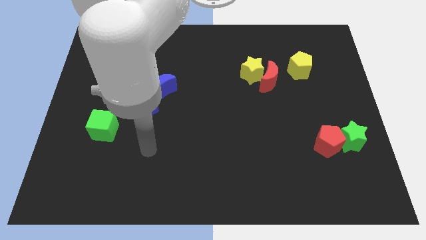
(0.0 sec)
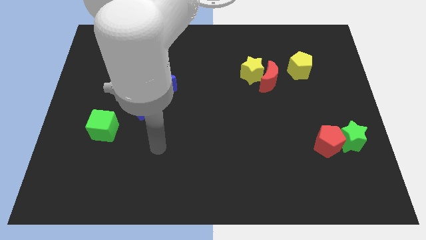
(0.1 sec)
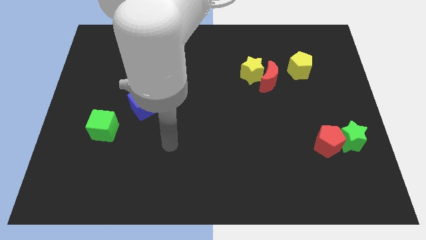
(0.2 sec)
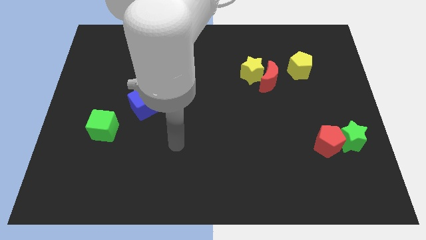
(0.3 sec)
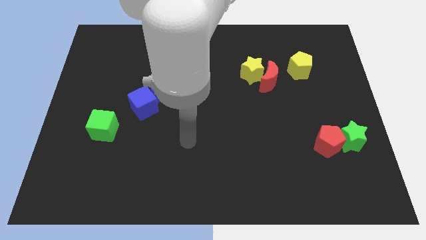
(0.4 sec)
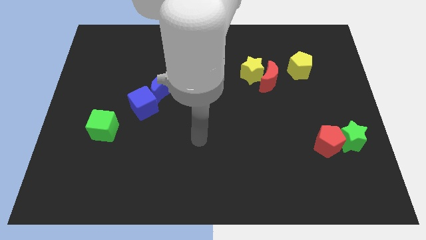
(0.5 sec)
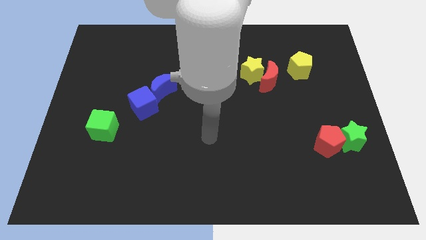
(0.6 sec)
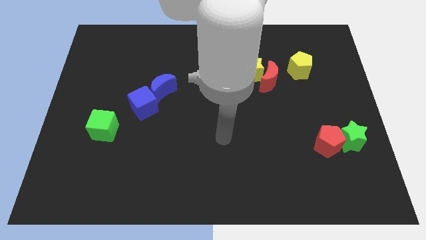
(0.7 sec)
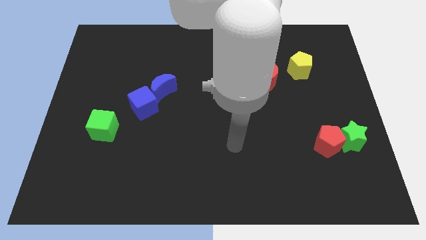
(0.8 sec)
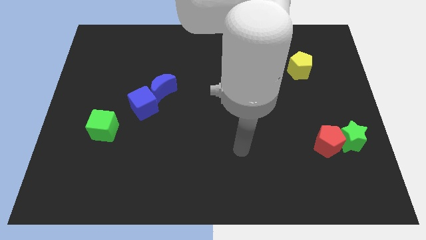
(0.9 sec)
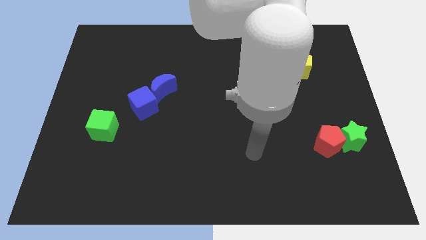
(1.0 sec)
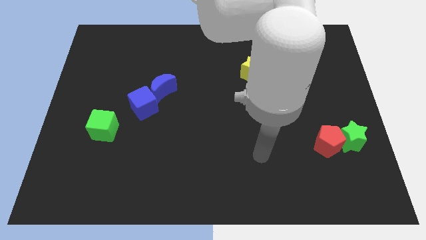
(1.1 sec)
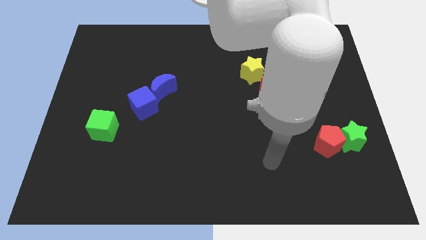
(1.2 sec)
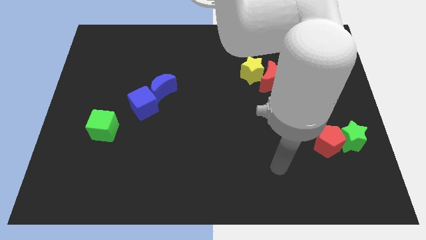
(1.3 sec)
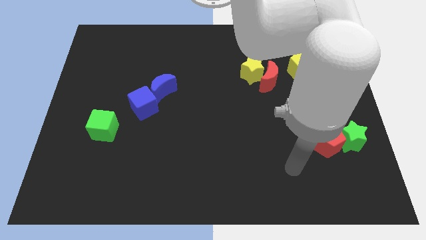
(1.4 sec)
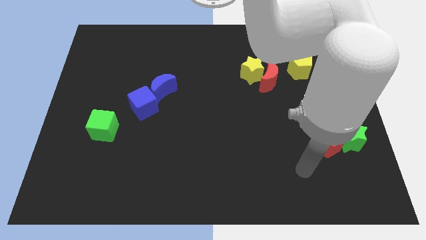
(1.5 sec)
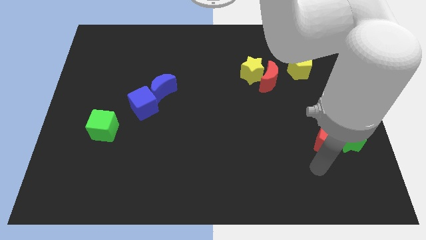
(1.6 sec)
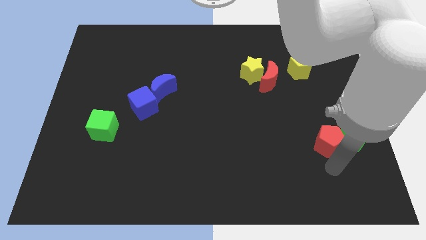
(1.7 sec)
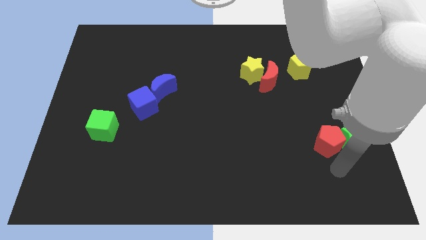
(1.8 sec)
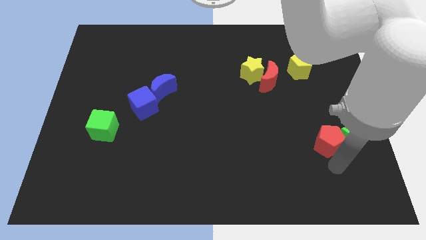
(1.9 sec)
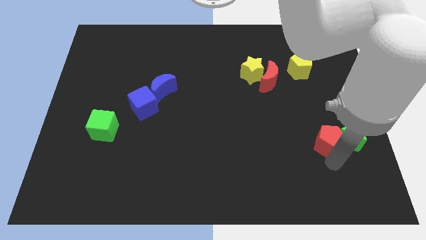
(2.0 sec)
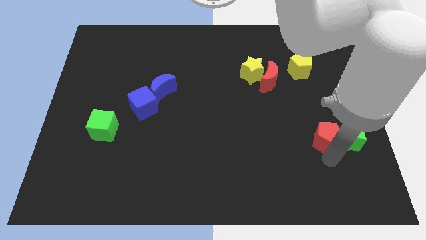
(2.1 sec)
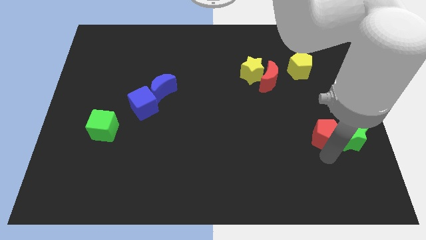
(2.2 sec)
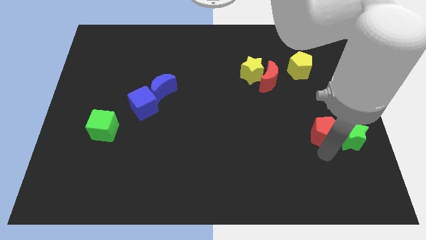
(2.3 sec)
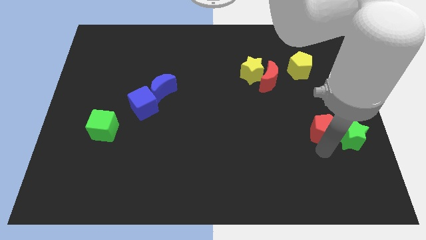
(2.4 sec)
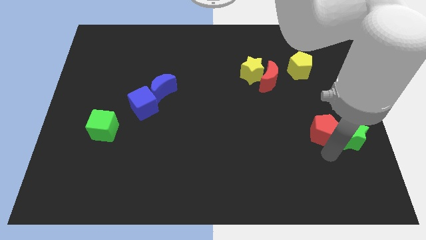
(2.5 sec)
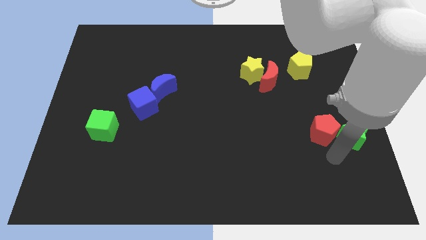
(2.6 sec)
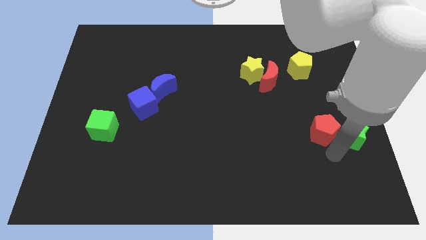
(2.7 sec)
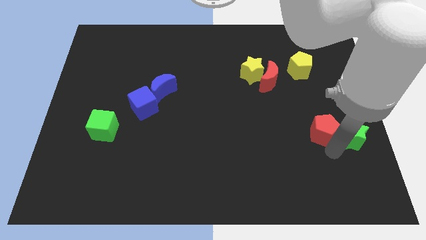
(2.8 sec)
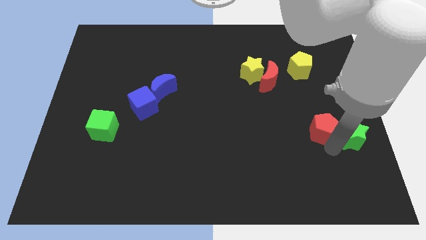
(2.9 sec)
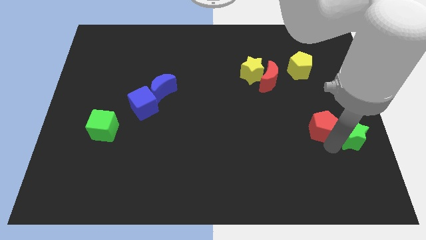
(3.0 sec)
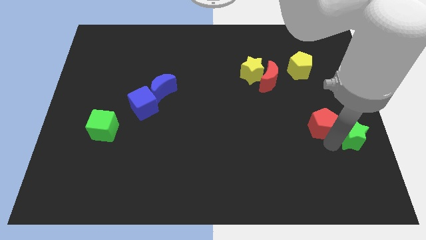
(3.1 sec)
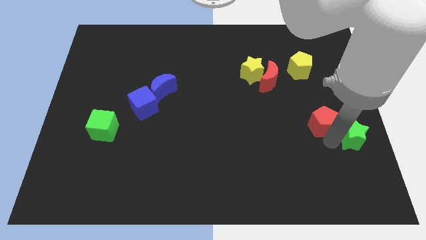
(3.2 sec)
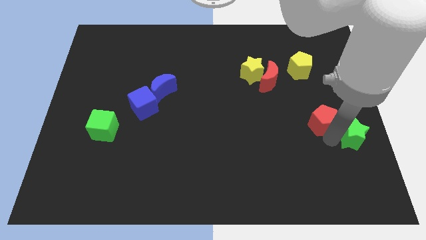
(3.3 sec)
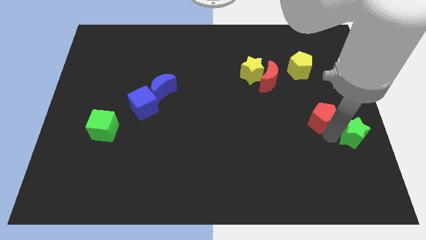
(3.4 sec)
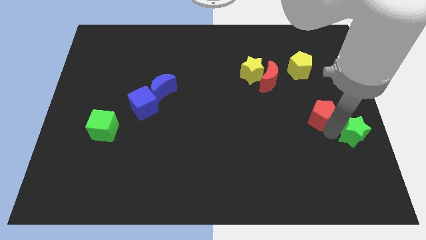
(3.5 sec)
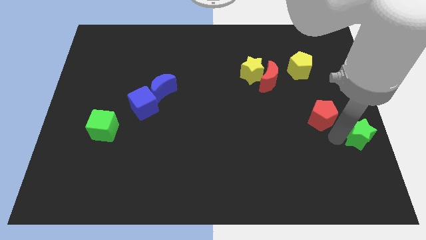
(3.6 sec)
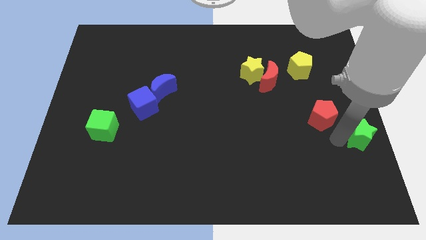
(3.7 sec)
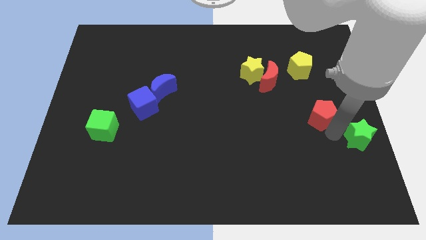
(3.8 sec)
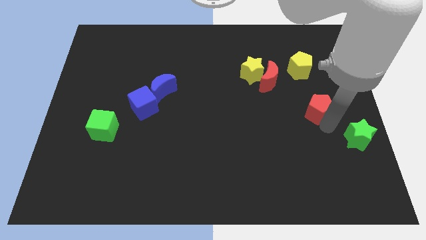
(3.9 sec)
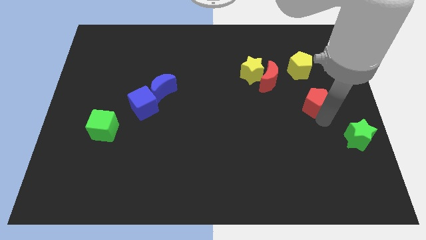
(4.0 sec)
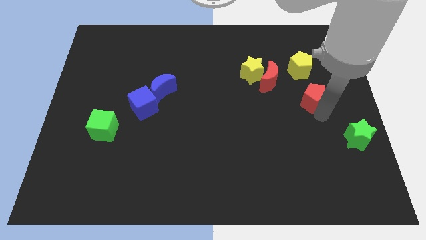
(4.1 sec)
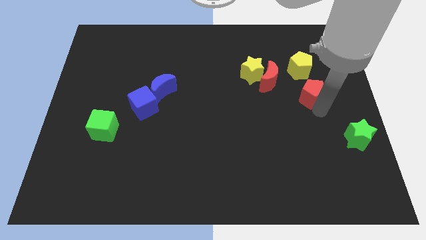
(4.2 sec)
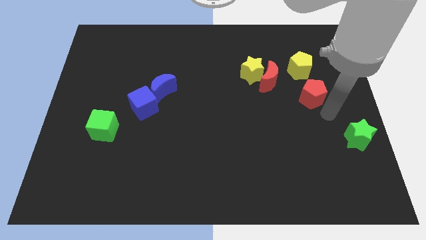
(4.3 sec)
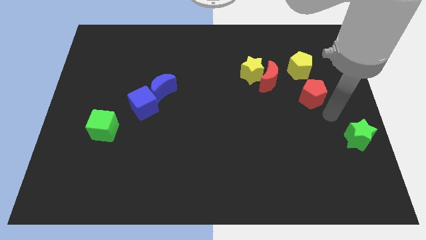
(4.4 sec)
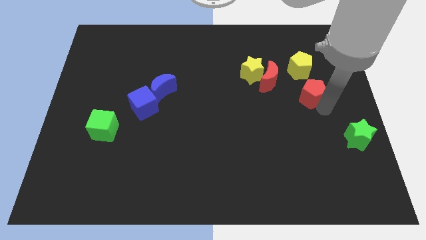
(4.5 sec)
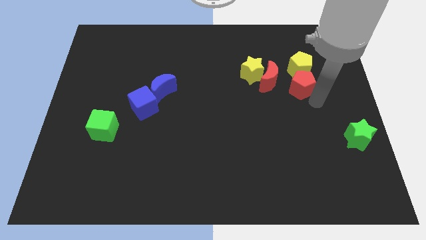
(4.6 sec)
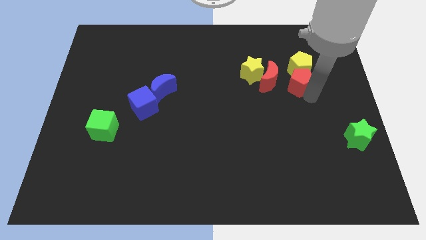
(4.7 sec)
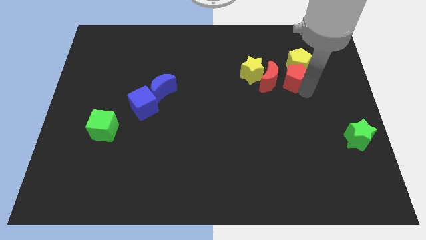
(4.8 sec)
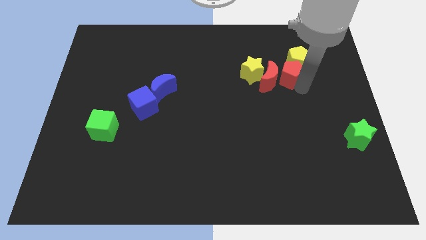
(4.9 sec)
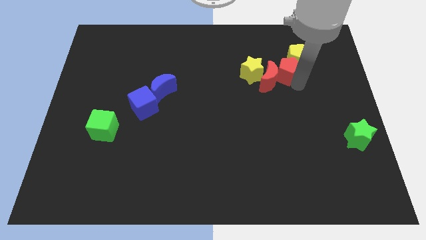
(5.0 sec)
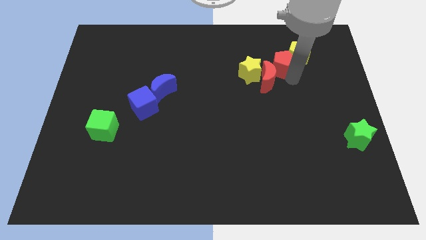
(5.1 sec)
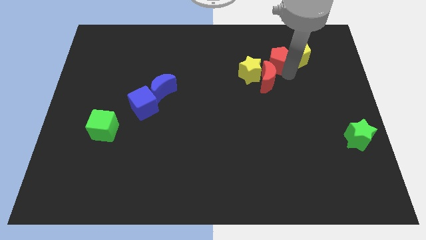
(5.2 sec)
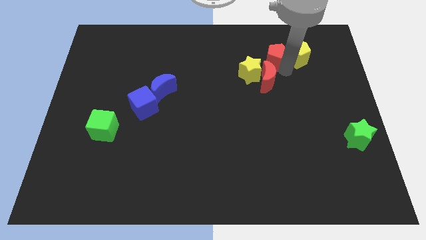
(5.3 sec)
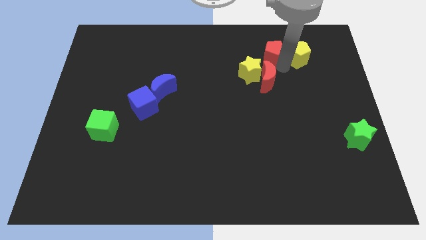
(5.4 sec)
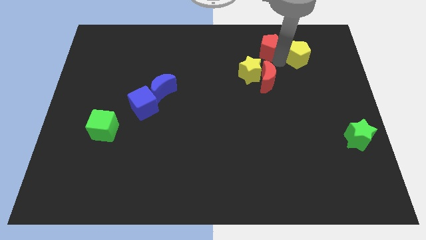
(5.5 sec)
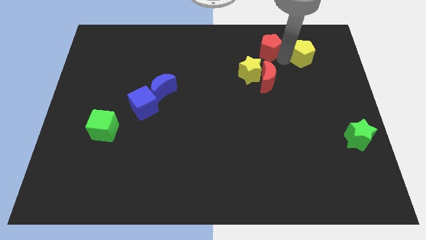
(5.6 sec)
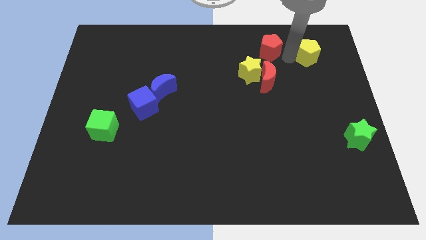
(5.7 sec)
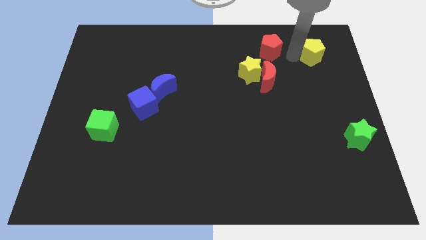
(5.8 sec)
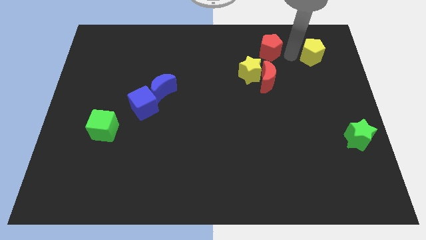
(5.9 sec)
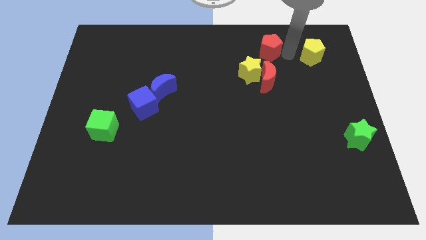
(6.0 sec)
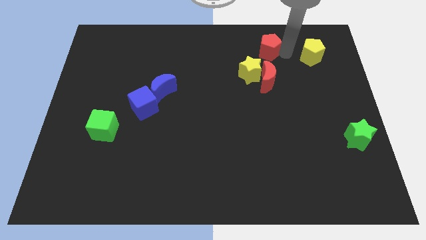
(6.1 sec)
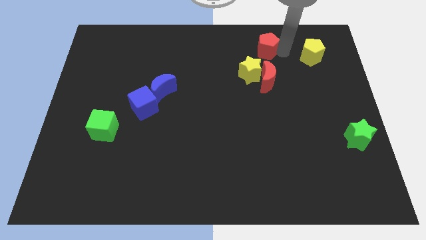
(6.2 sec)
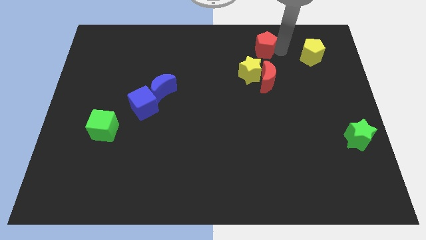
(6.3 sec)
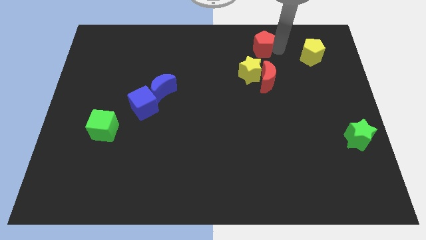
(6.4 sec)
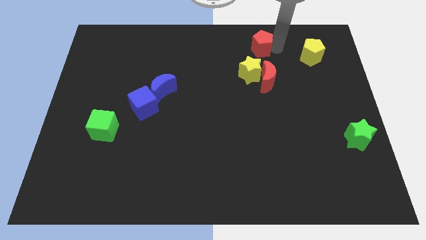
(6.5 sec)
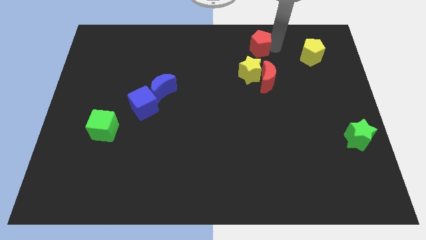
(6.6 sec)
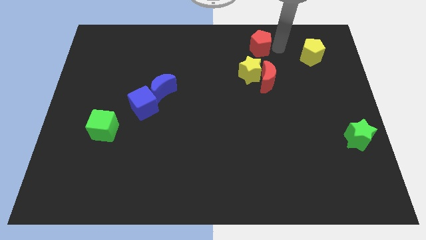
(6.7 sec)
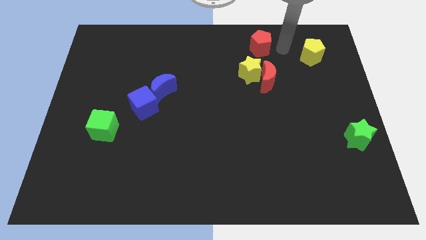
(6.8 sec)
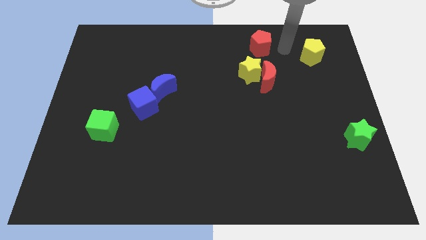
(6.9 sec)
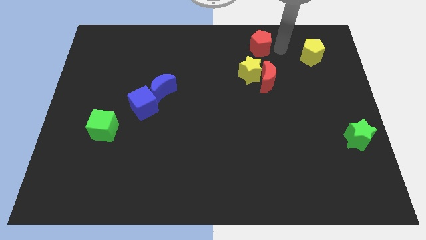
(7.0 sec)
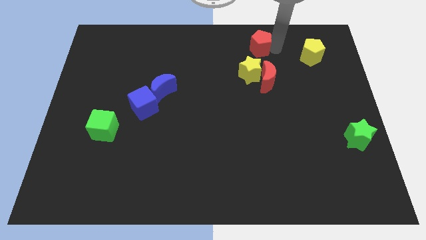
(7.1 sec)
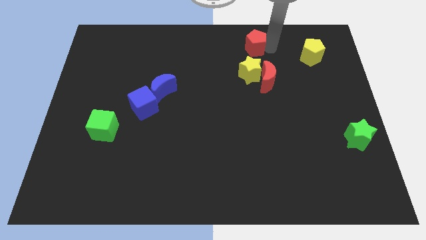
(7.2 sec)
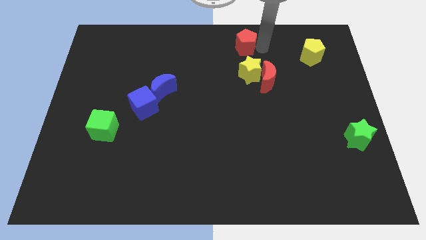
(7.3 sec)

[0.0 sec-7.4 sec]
push the red pentagon to the top side

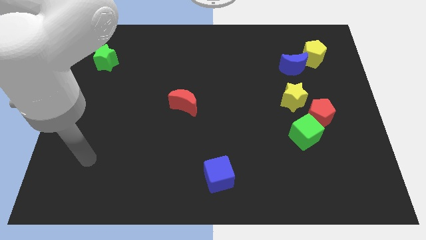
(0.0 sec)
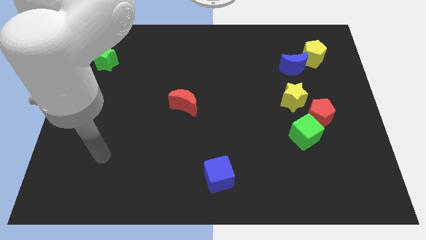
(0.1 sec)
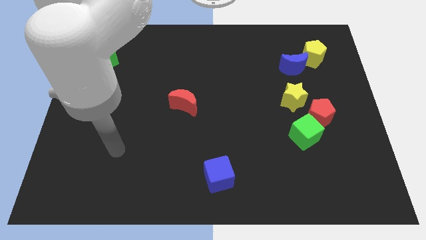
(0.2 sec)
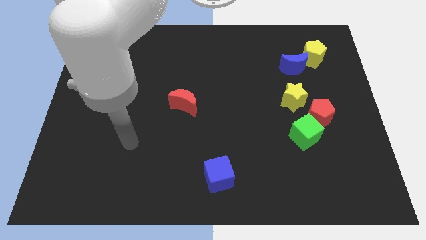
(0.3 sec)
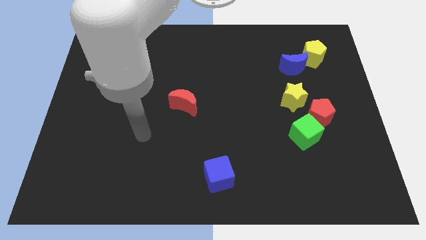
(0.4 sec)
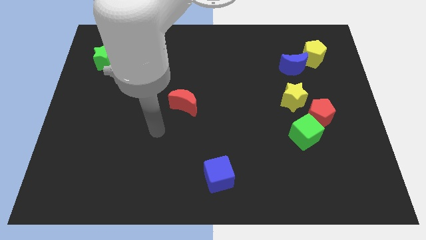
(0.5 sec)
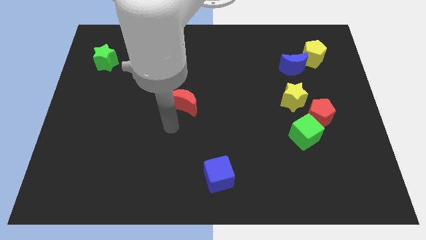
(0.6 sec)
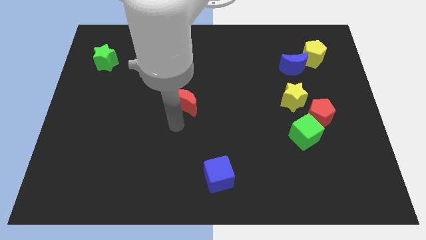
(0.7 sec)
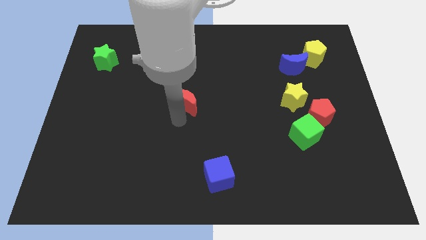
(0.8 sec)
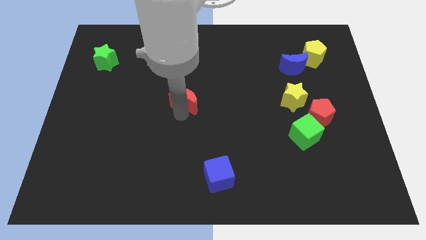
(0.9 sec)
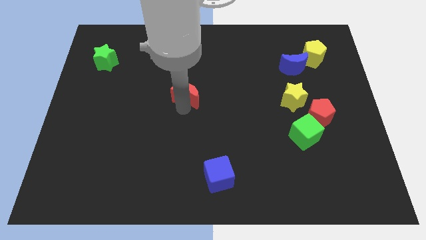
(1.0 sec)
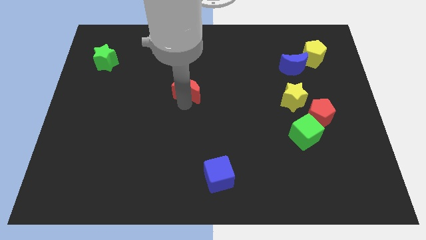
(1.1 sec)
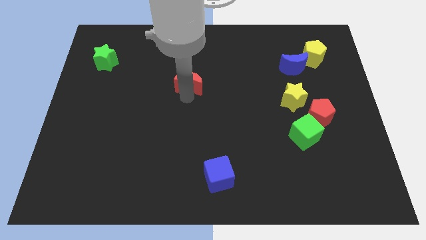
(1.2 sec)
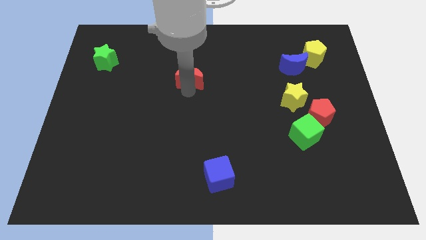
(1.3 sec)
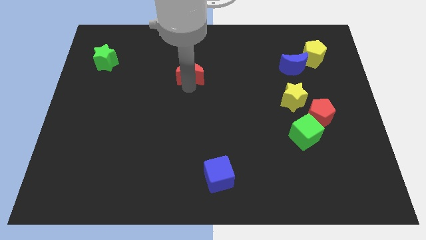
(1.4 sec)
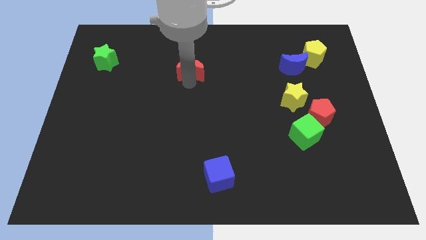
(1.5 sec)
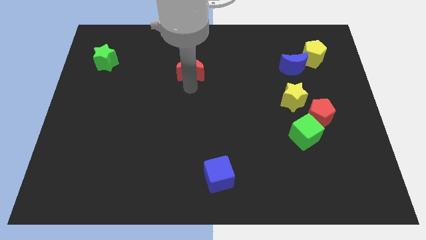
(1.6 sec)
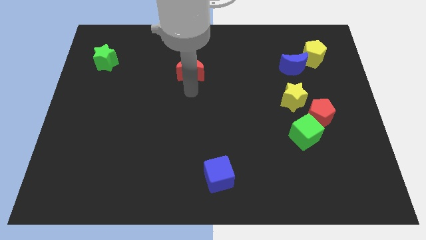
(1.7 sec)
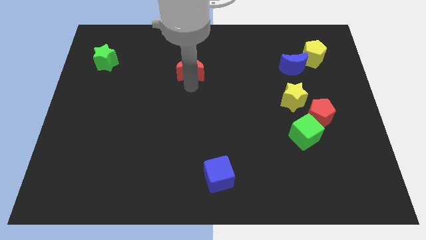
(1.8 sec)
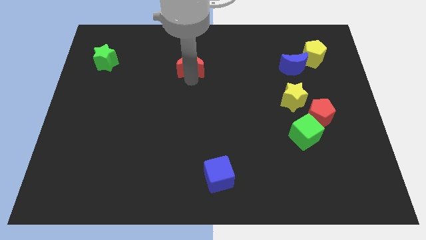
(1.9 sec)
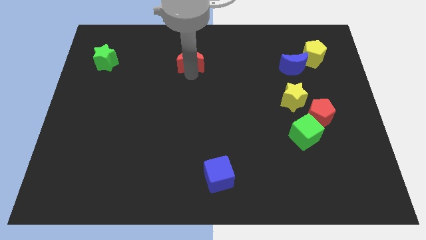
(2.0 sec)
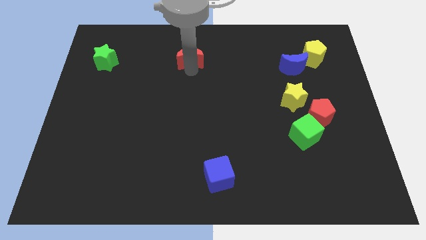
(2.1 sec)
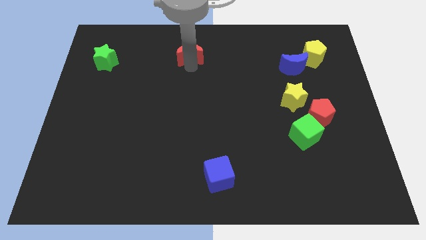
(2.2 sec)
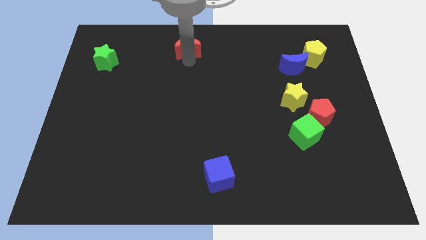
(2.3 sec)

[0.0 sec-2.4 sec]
move the red moon to the top side
